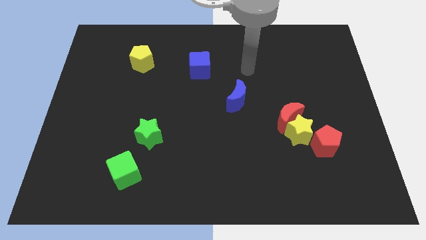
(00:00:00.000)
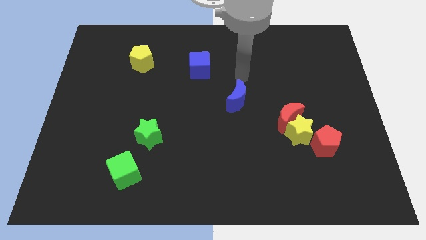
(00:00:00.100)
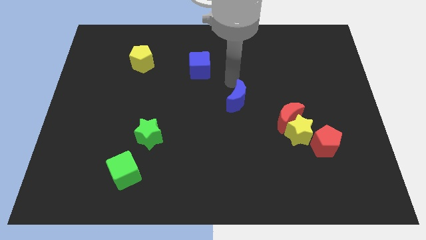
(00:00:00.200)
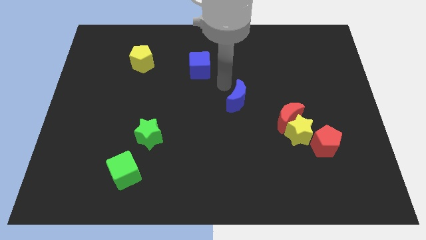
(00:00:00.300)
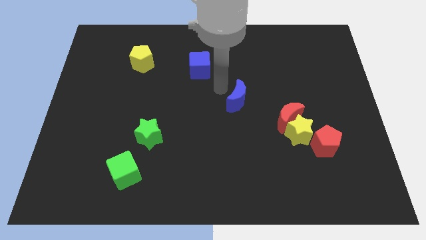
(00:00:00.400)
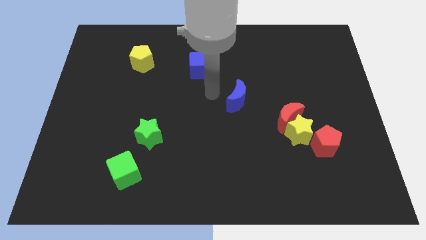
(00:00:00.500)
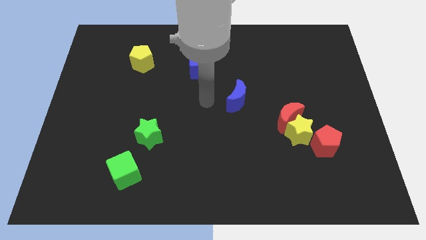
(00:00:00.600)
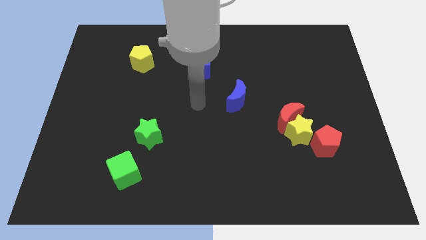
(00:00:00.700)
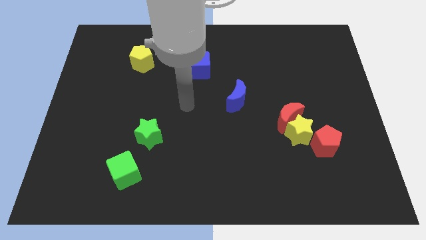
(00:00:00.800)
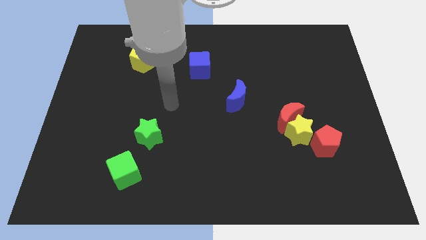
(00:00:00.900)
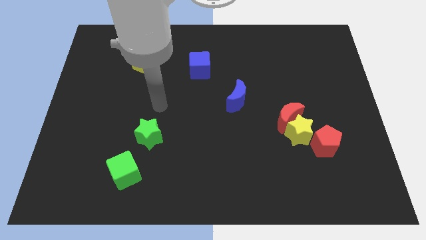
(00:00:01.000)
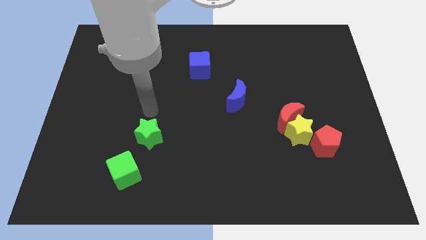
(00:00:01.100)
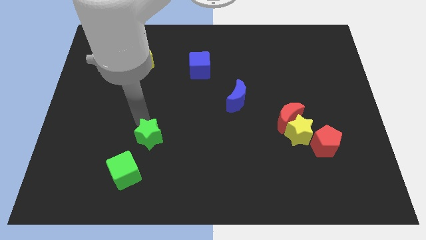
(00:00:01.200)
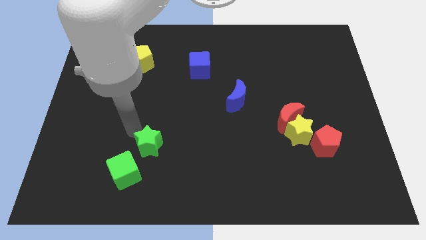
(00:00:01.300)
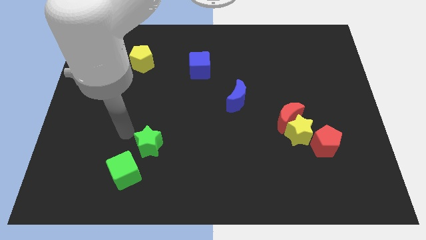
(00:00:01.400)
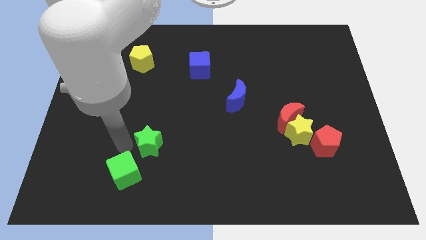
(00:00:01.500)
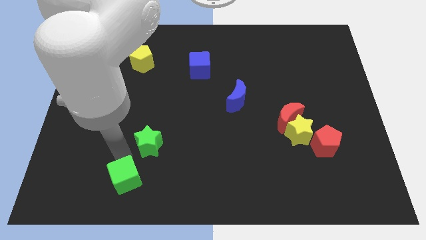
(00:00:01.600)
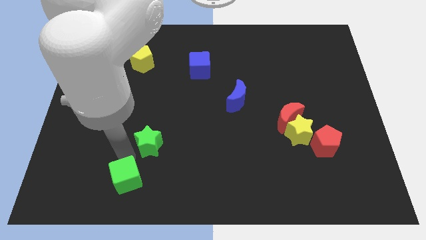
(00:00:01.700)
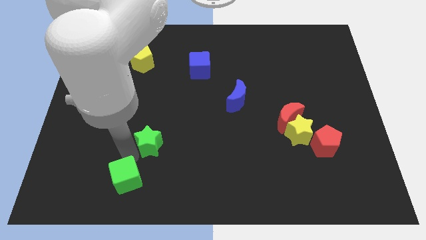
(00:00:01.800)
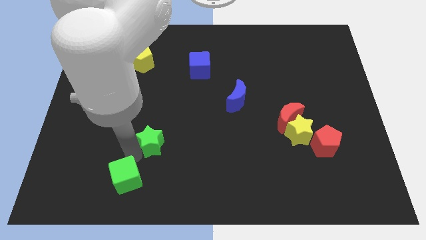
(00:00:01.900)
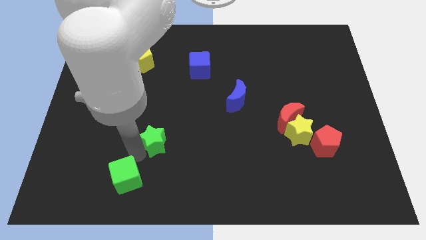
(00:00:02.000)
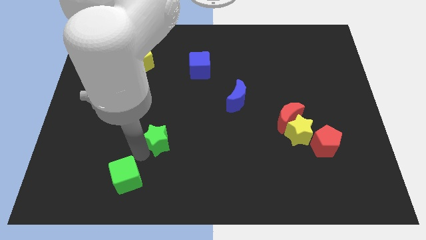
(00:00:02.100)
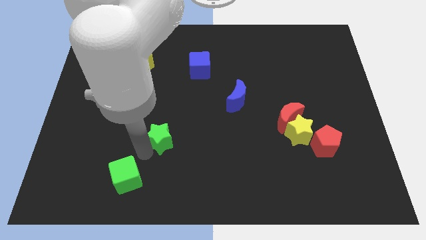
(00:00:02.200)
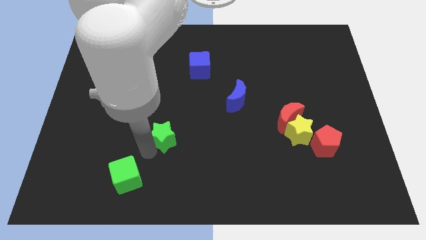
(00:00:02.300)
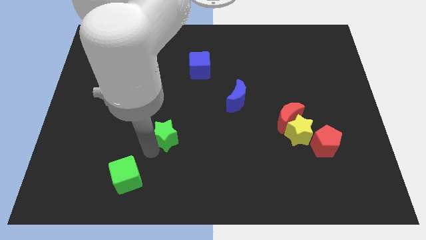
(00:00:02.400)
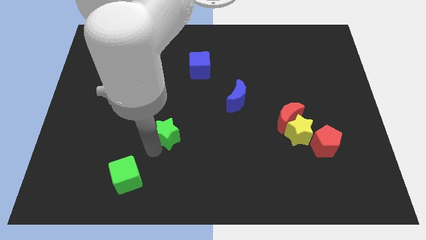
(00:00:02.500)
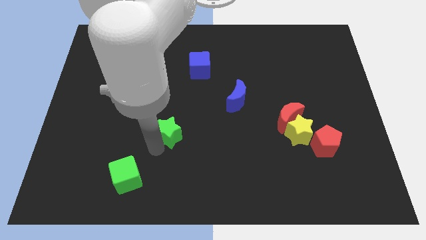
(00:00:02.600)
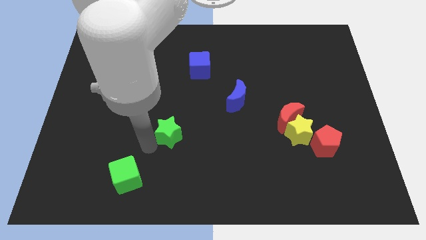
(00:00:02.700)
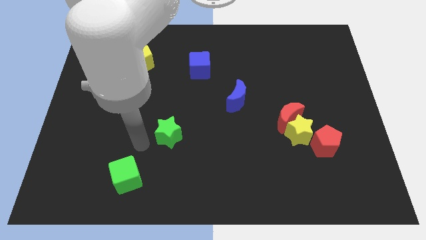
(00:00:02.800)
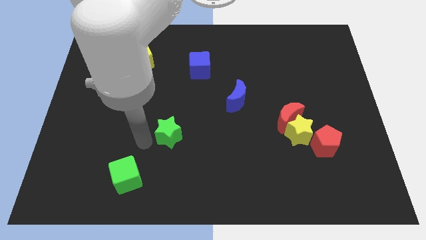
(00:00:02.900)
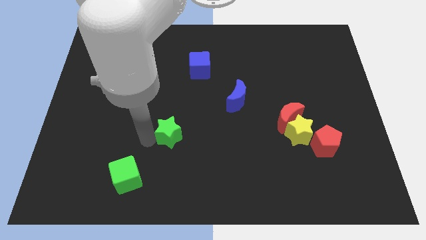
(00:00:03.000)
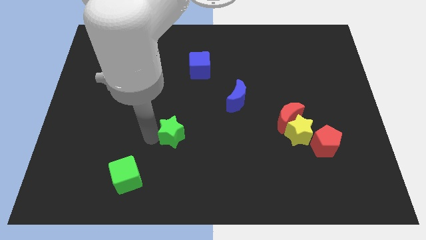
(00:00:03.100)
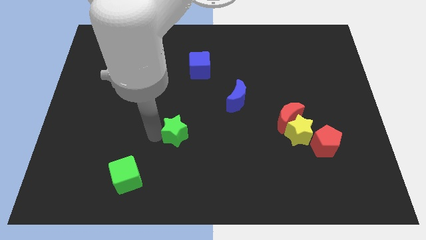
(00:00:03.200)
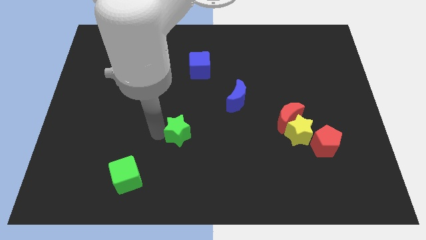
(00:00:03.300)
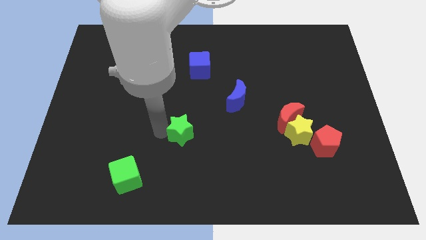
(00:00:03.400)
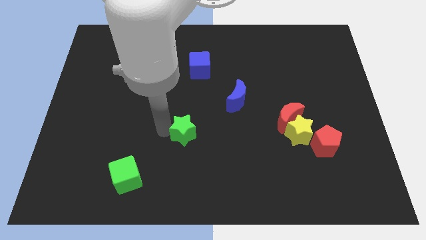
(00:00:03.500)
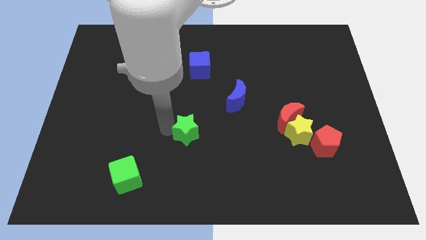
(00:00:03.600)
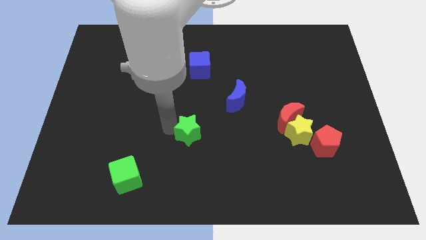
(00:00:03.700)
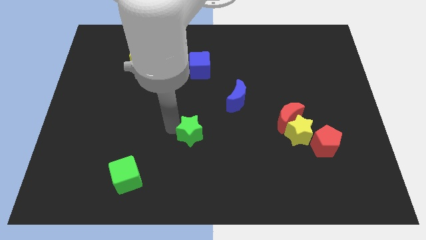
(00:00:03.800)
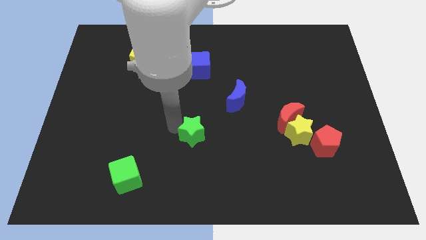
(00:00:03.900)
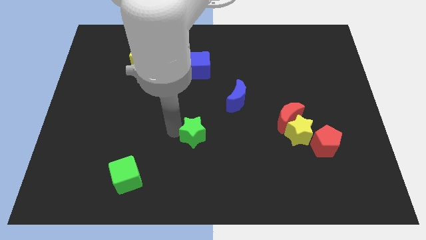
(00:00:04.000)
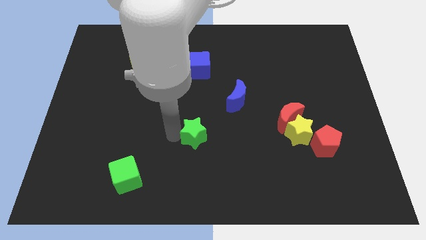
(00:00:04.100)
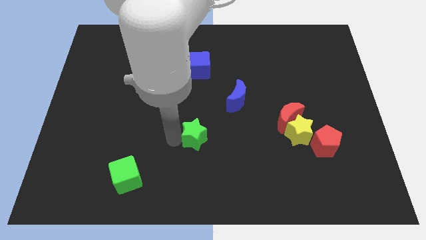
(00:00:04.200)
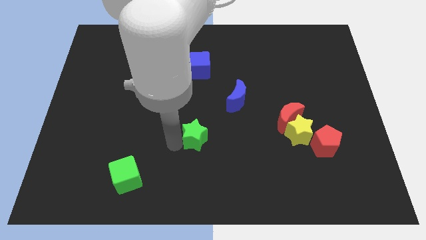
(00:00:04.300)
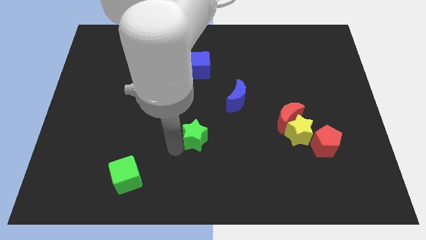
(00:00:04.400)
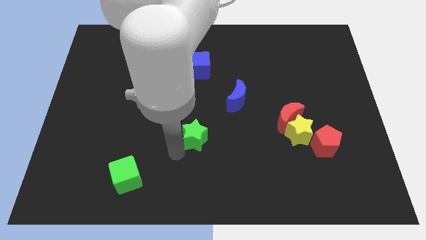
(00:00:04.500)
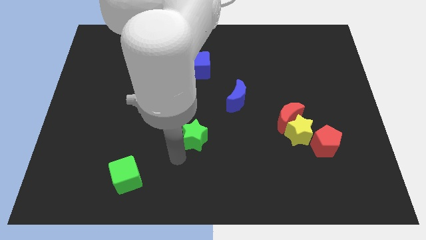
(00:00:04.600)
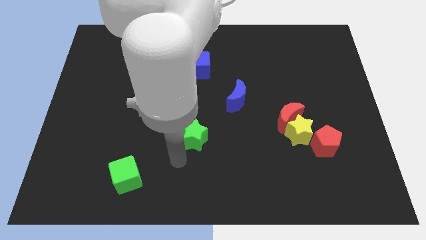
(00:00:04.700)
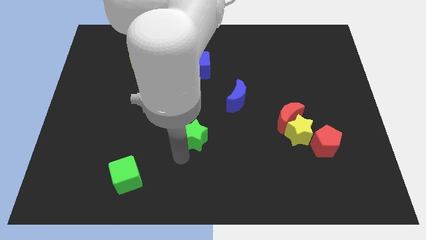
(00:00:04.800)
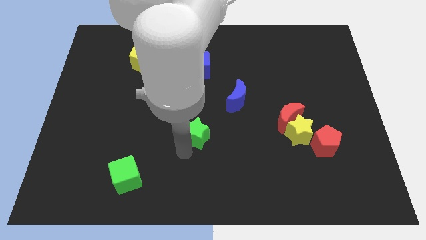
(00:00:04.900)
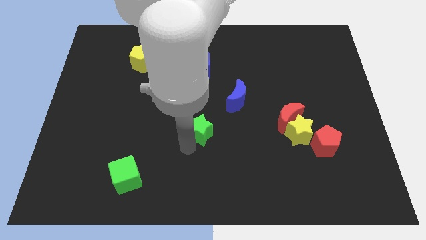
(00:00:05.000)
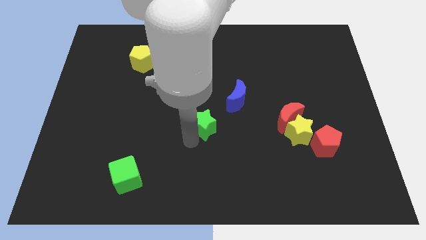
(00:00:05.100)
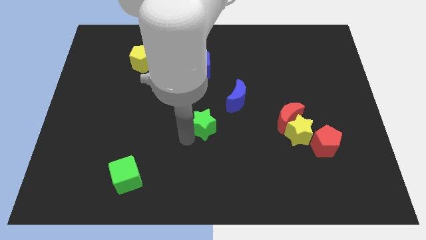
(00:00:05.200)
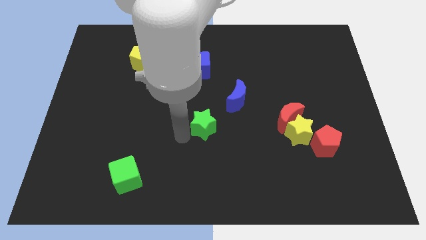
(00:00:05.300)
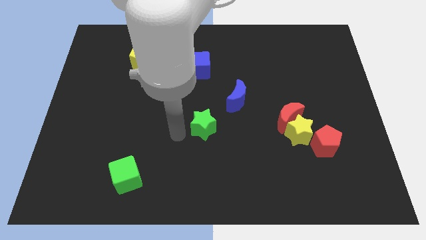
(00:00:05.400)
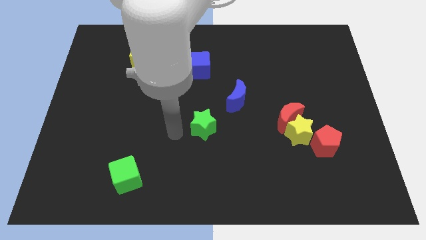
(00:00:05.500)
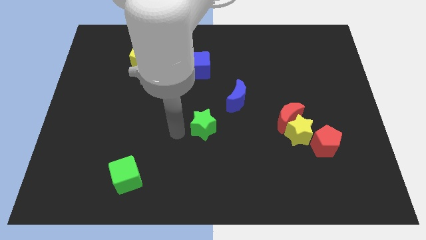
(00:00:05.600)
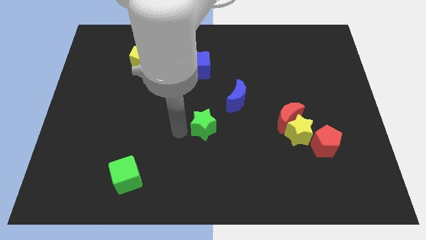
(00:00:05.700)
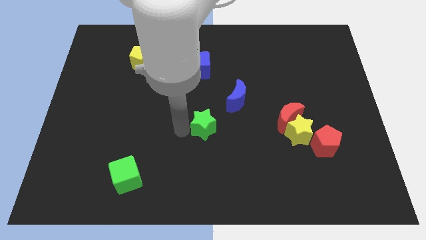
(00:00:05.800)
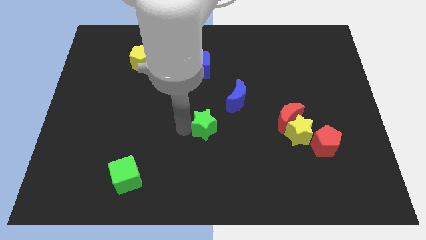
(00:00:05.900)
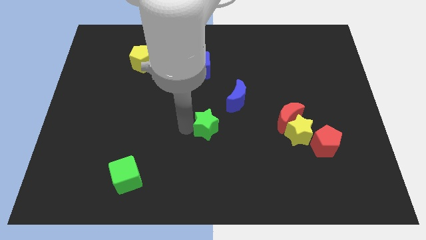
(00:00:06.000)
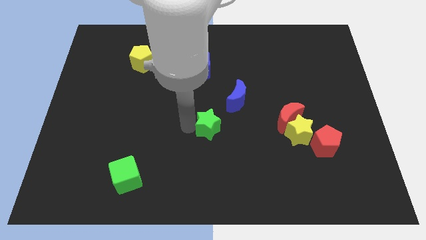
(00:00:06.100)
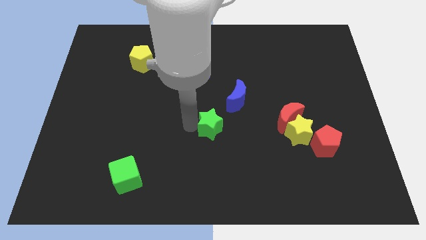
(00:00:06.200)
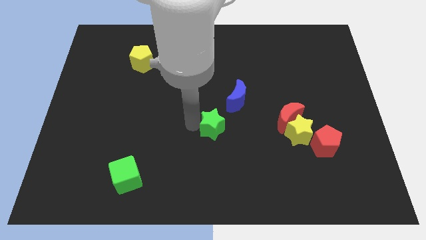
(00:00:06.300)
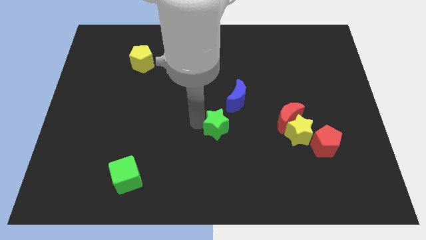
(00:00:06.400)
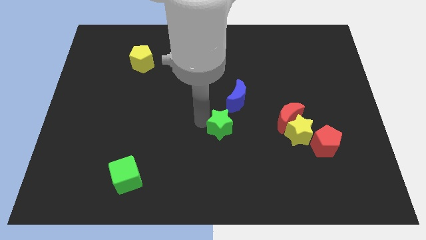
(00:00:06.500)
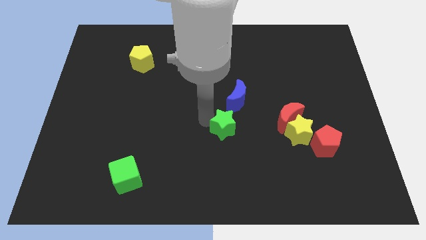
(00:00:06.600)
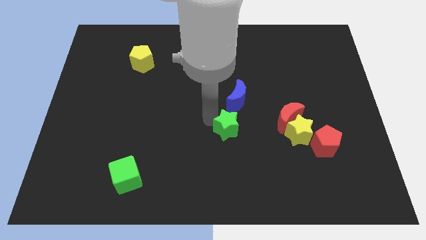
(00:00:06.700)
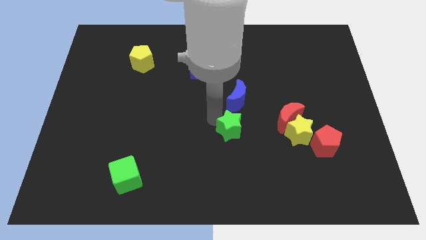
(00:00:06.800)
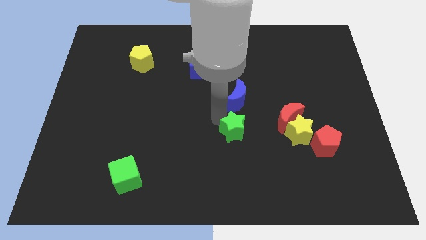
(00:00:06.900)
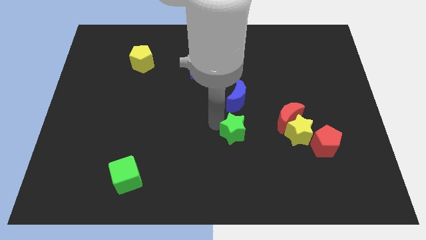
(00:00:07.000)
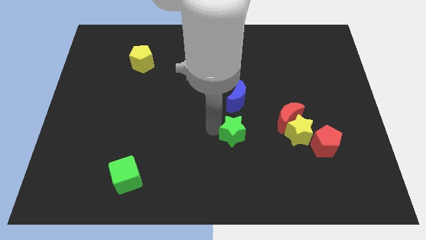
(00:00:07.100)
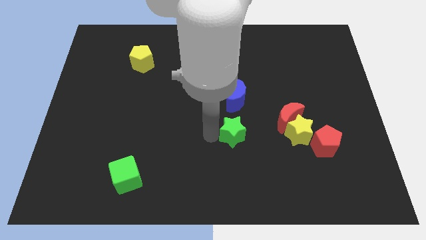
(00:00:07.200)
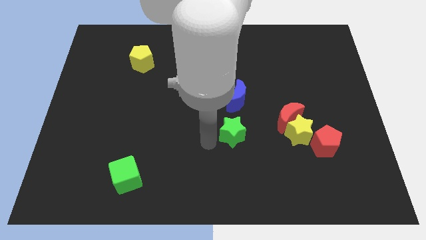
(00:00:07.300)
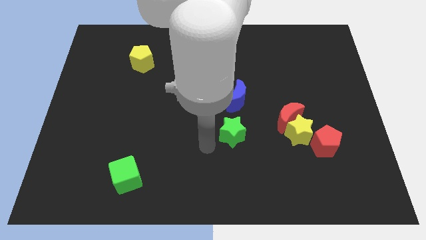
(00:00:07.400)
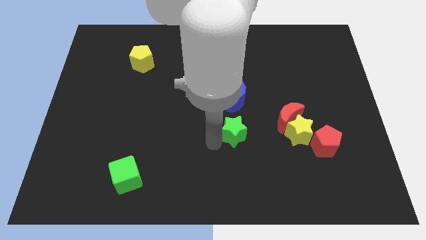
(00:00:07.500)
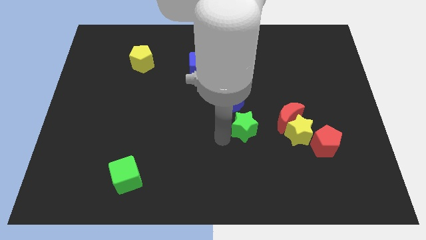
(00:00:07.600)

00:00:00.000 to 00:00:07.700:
put the green star to the bottom right side of the blue moon
